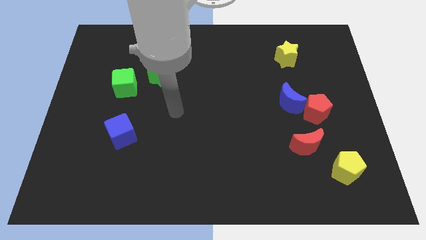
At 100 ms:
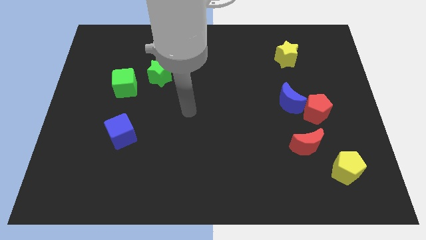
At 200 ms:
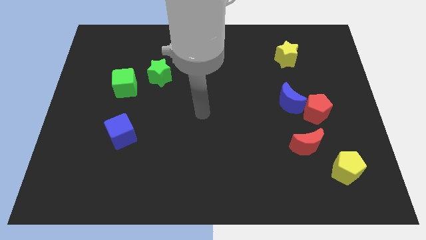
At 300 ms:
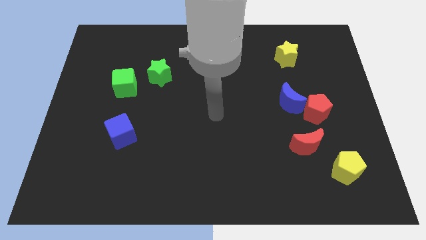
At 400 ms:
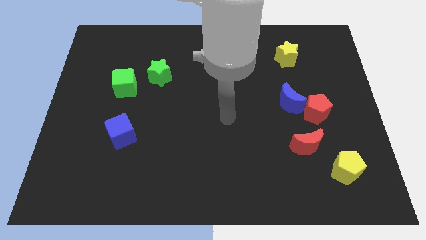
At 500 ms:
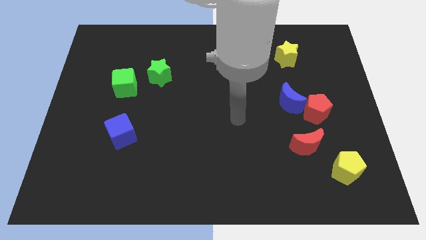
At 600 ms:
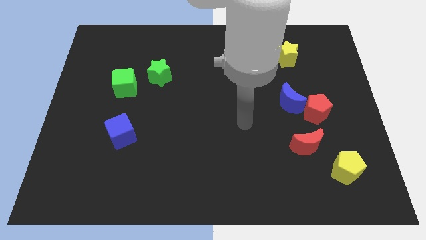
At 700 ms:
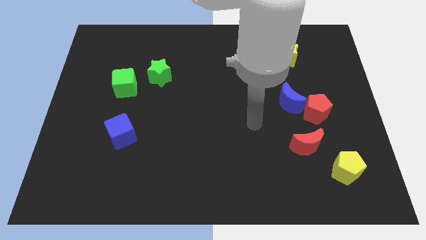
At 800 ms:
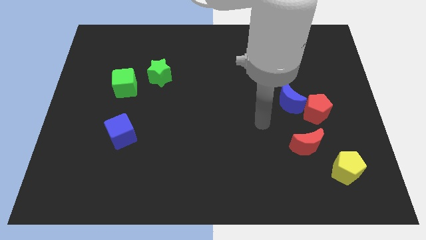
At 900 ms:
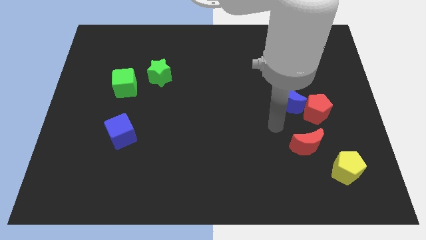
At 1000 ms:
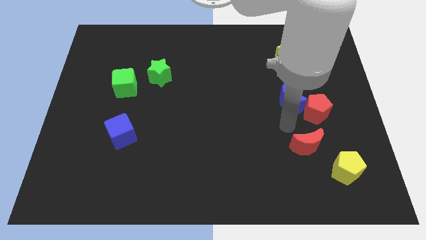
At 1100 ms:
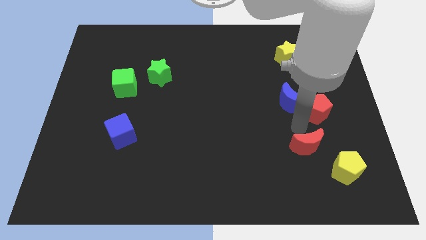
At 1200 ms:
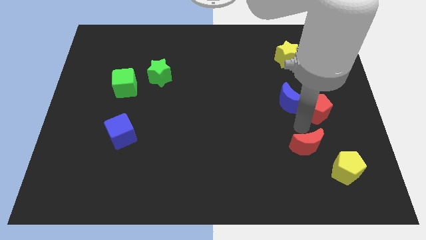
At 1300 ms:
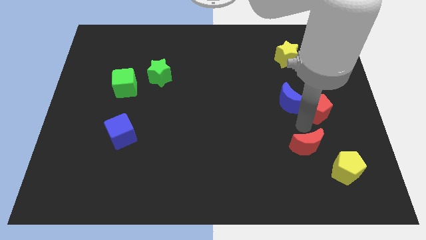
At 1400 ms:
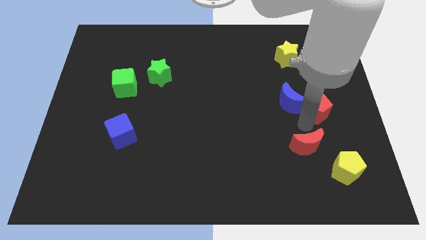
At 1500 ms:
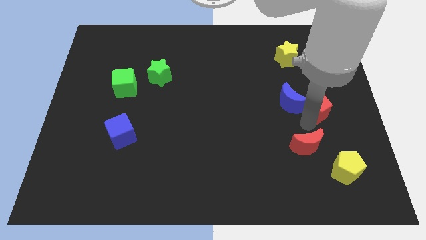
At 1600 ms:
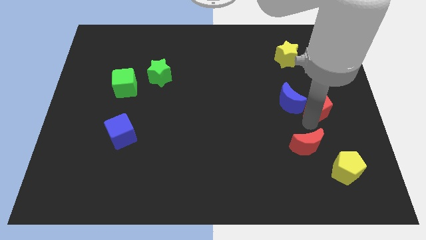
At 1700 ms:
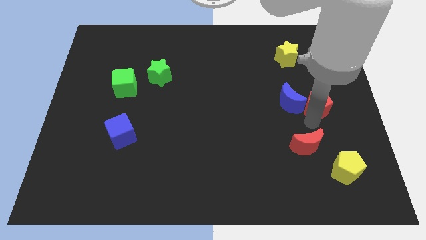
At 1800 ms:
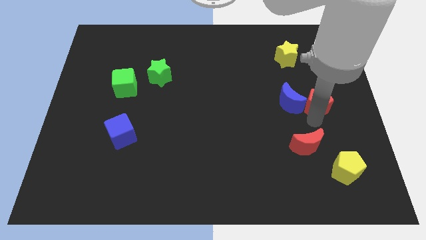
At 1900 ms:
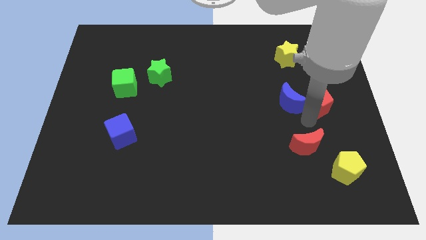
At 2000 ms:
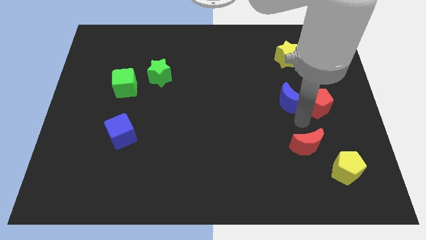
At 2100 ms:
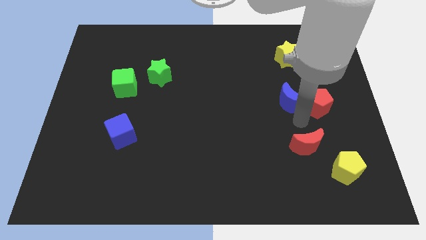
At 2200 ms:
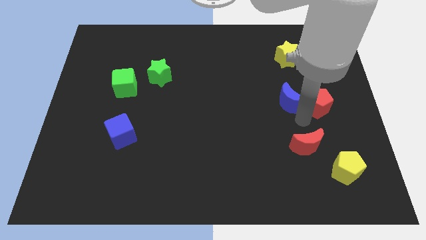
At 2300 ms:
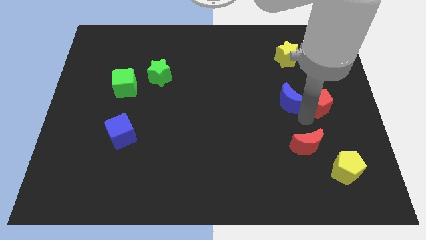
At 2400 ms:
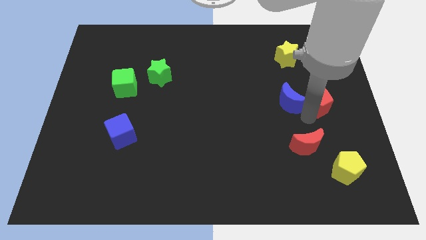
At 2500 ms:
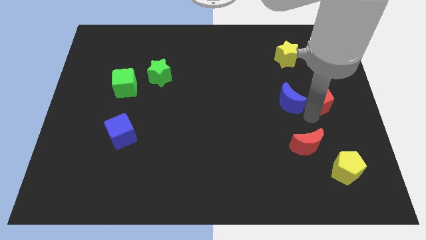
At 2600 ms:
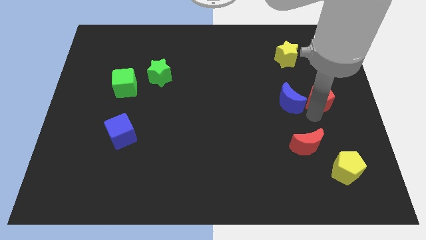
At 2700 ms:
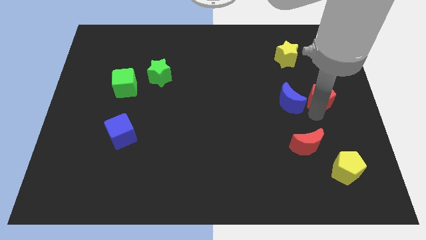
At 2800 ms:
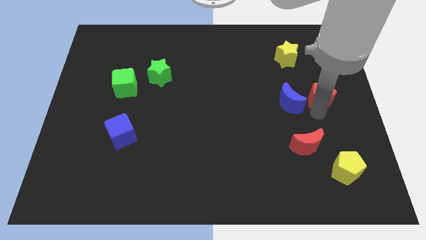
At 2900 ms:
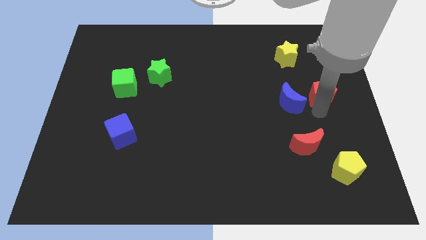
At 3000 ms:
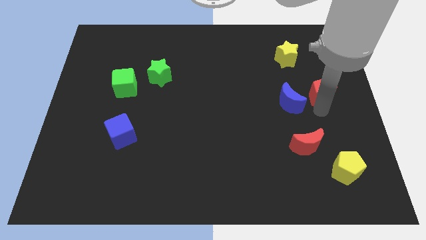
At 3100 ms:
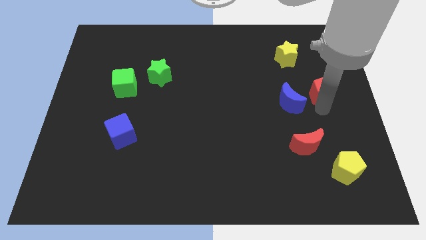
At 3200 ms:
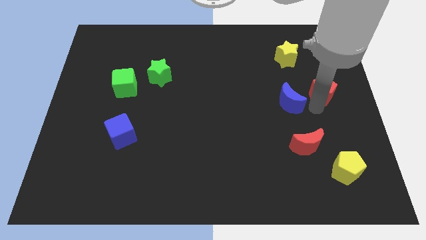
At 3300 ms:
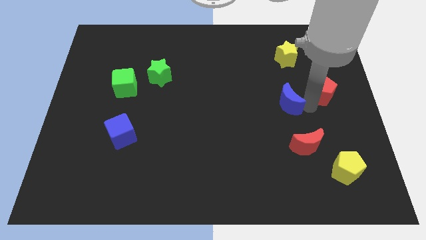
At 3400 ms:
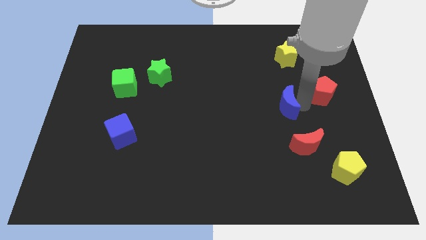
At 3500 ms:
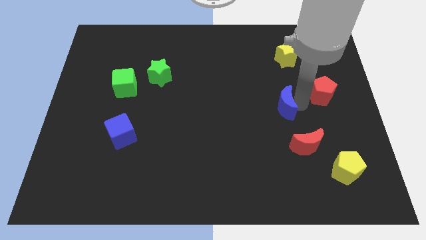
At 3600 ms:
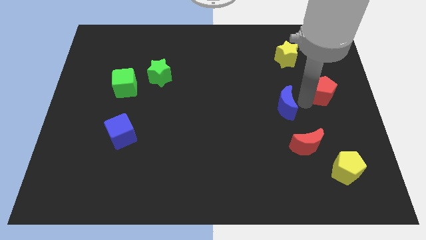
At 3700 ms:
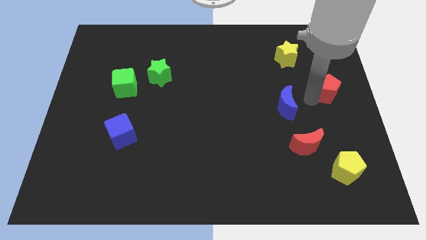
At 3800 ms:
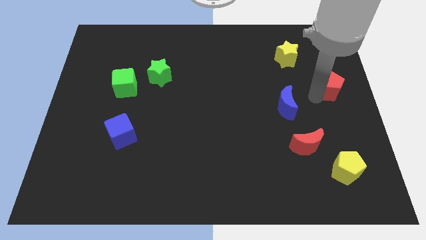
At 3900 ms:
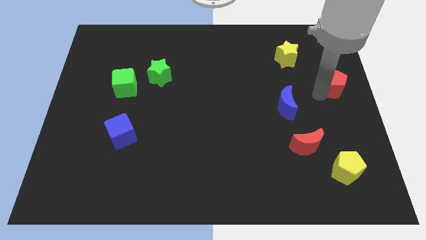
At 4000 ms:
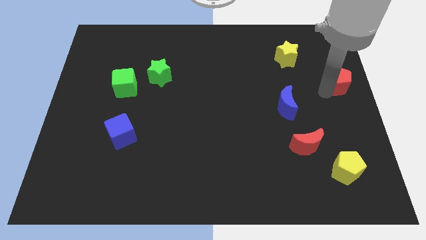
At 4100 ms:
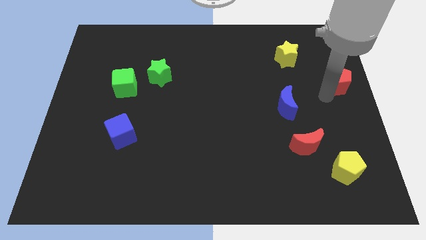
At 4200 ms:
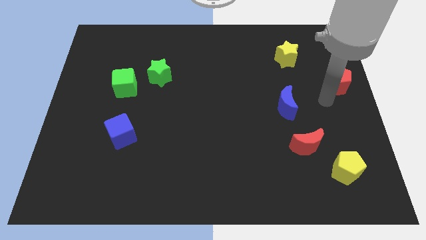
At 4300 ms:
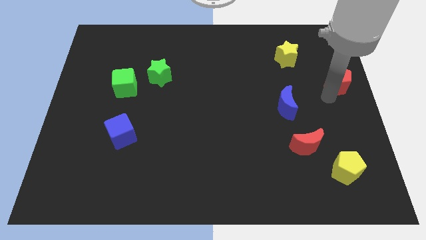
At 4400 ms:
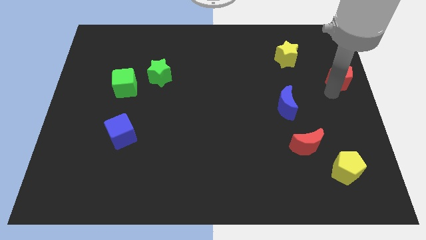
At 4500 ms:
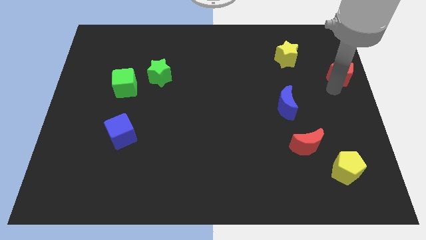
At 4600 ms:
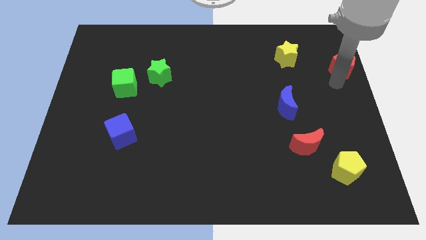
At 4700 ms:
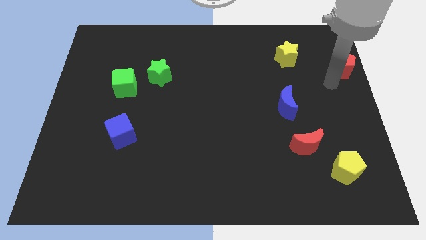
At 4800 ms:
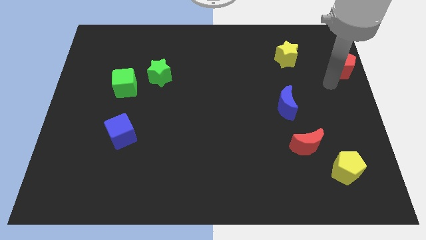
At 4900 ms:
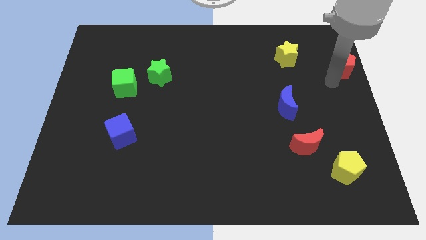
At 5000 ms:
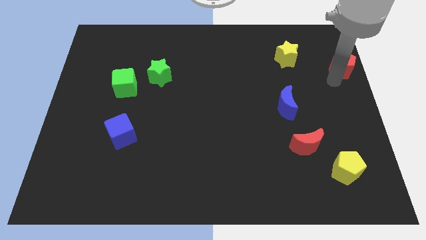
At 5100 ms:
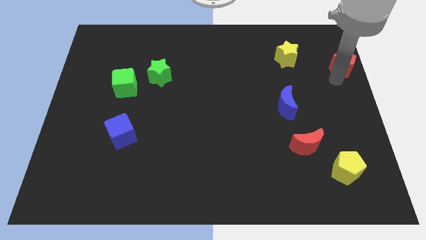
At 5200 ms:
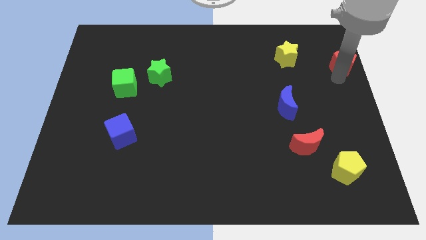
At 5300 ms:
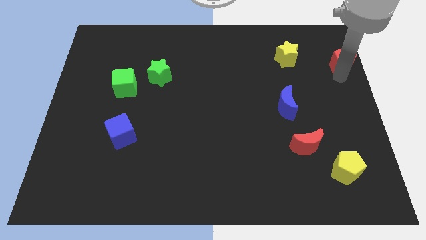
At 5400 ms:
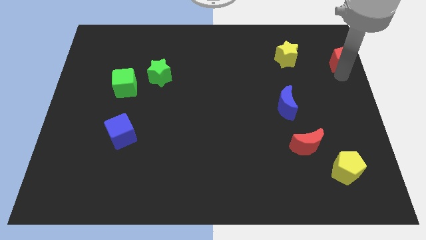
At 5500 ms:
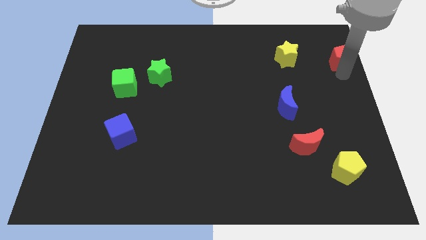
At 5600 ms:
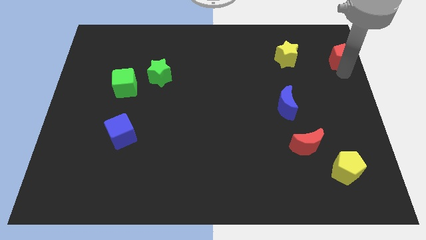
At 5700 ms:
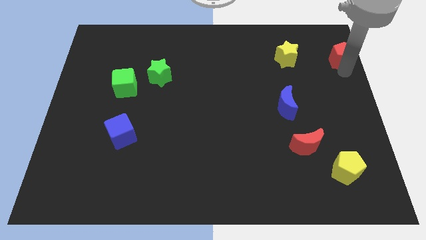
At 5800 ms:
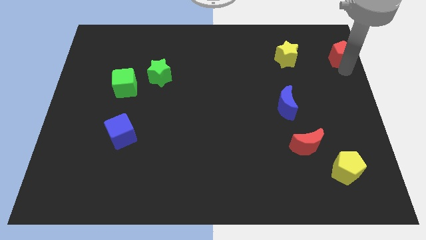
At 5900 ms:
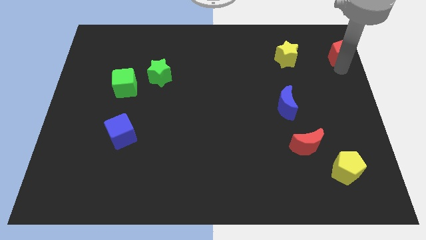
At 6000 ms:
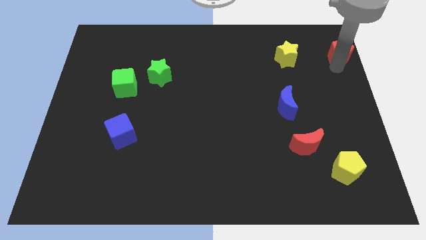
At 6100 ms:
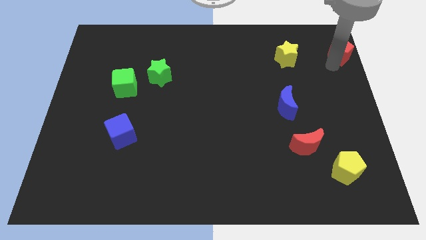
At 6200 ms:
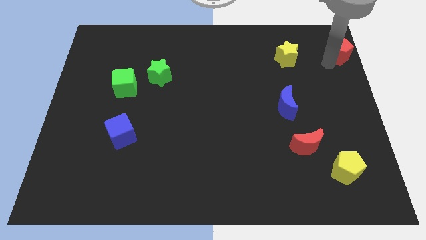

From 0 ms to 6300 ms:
move the red pentagon to the top right of the board

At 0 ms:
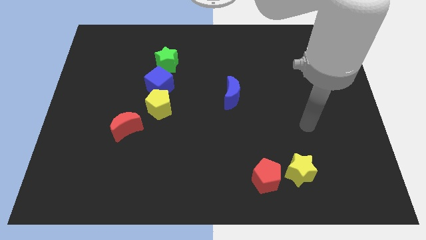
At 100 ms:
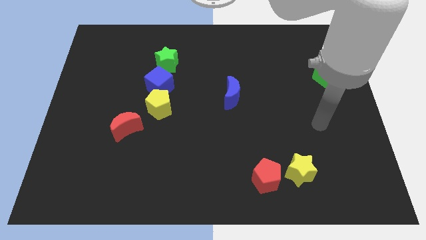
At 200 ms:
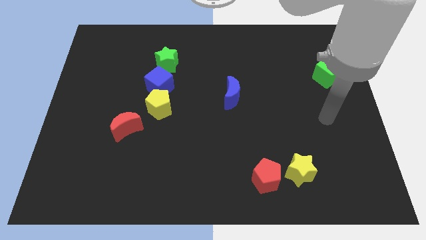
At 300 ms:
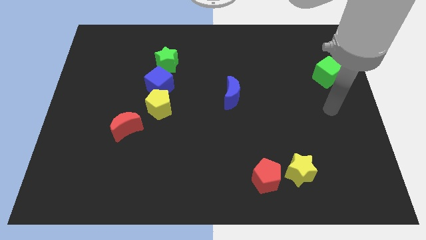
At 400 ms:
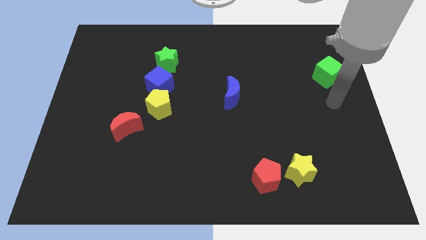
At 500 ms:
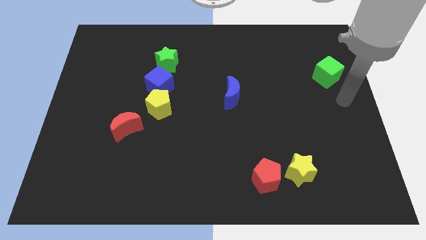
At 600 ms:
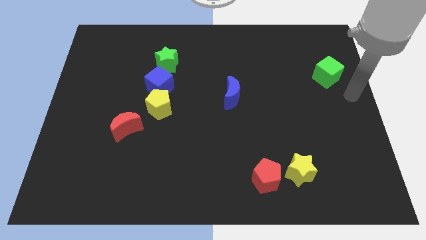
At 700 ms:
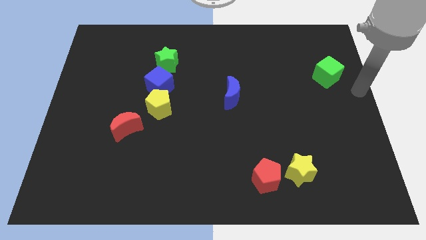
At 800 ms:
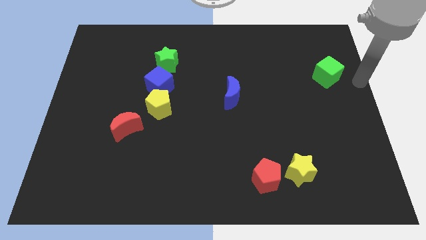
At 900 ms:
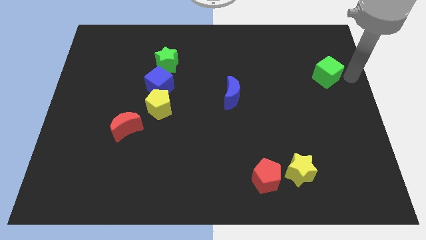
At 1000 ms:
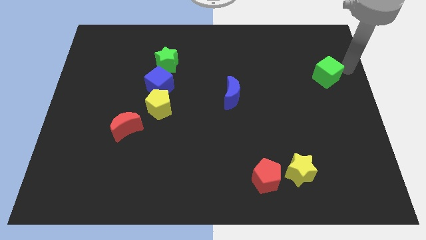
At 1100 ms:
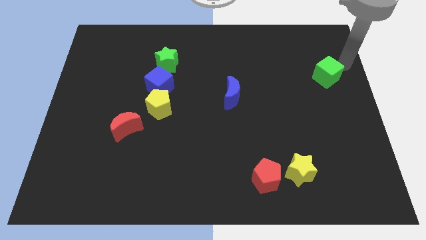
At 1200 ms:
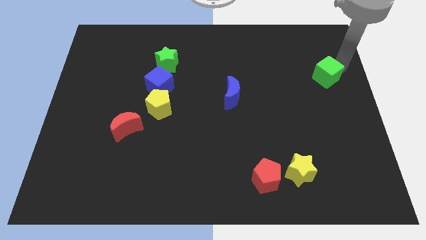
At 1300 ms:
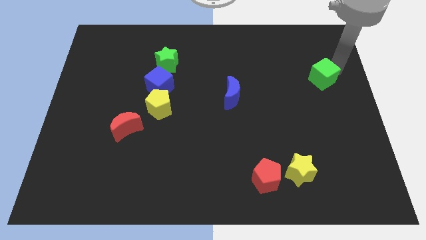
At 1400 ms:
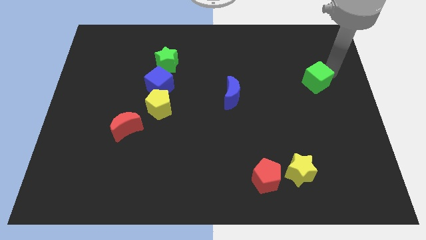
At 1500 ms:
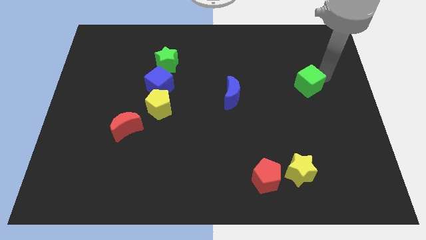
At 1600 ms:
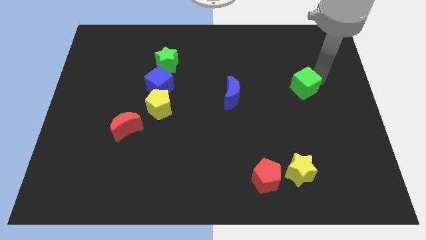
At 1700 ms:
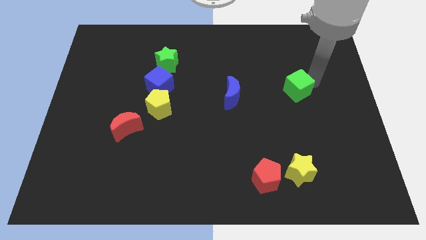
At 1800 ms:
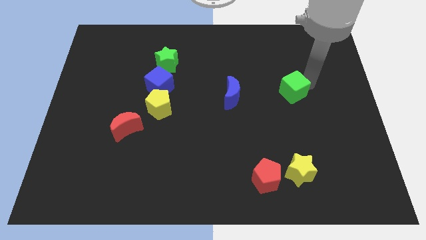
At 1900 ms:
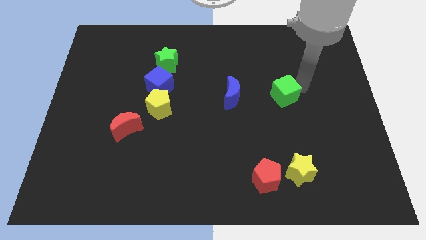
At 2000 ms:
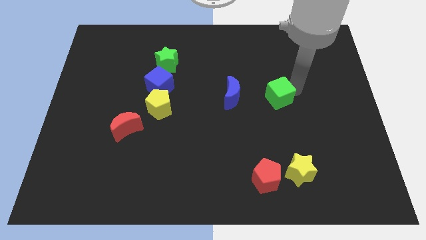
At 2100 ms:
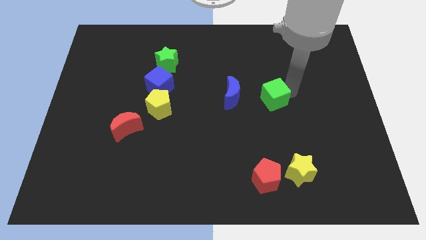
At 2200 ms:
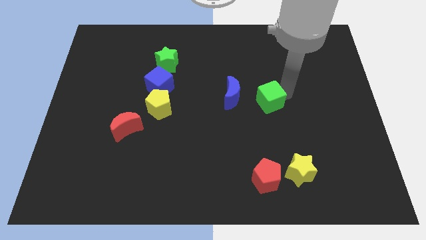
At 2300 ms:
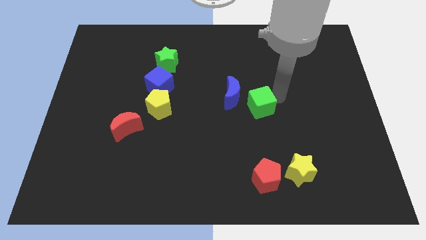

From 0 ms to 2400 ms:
push the green cube to the middle
